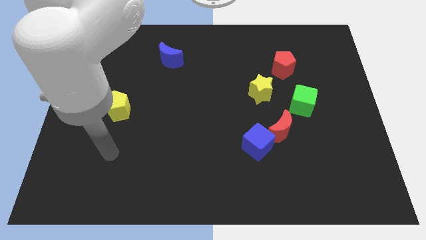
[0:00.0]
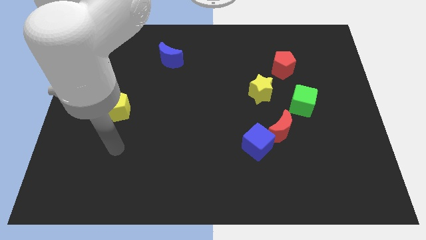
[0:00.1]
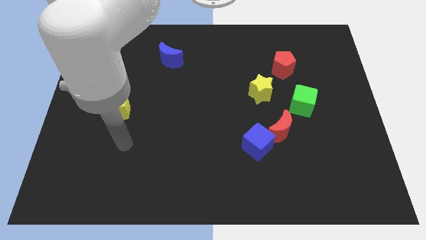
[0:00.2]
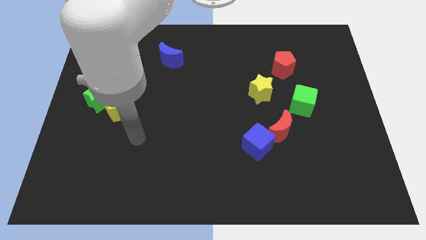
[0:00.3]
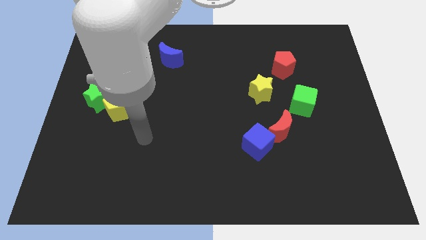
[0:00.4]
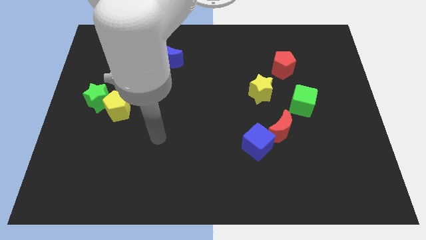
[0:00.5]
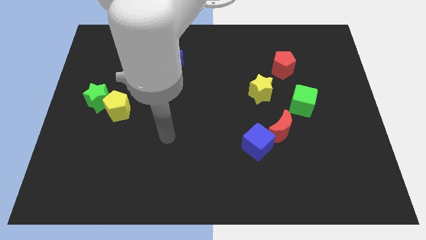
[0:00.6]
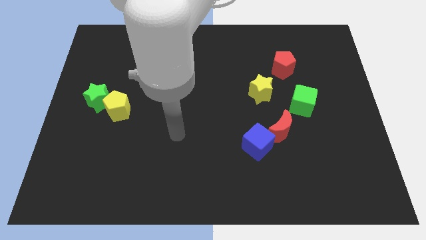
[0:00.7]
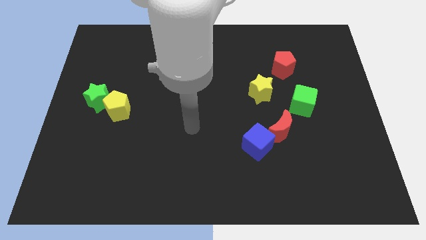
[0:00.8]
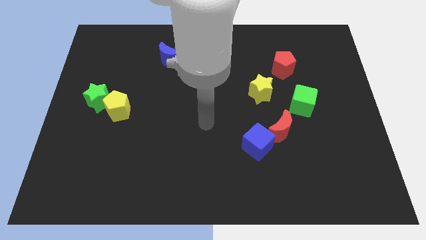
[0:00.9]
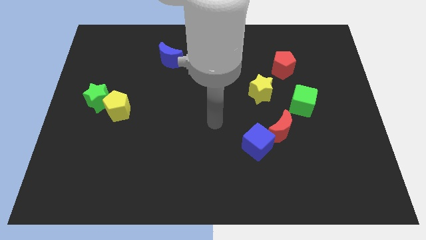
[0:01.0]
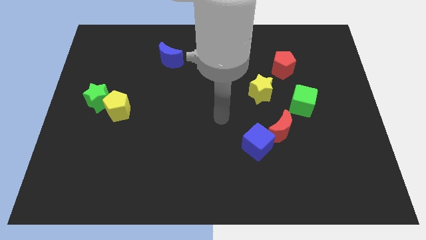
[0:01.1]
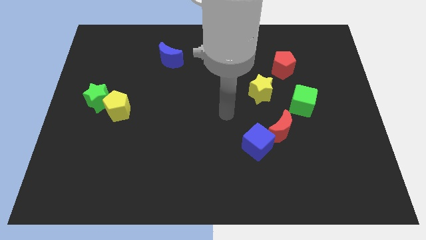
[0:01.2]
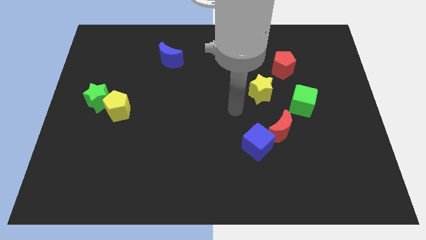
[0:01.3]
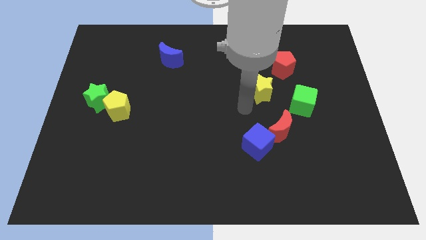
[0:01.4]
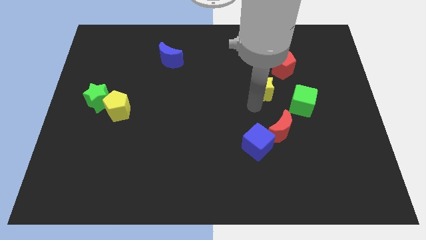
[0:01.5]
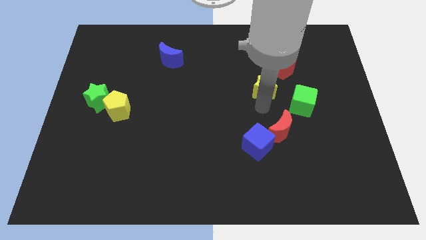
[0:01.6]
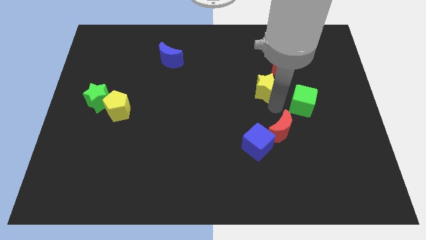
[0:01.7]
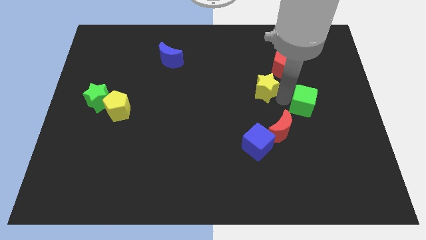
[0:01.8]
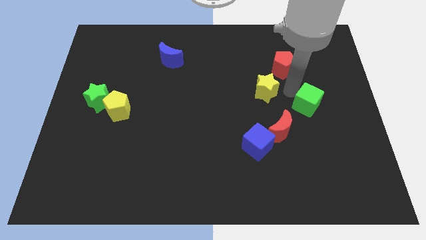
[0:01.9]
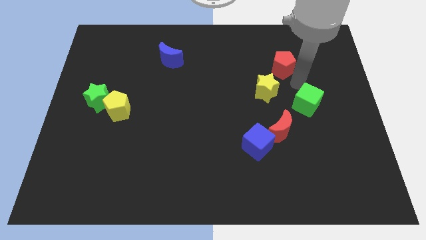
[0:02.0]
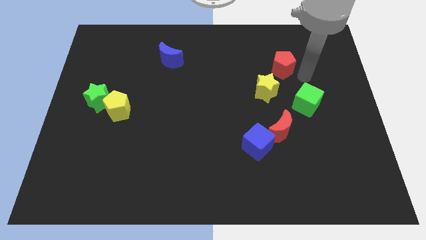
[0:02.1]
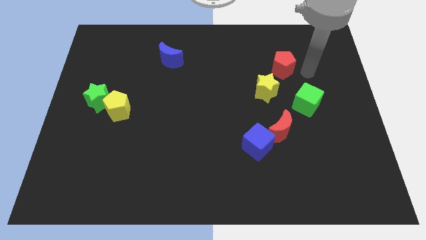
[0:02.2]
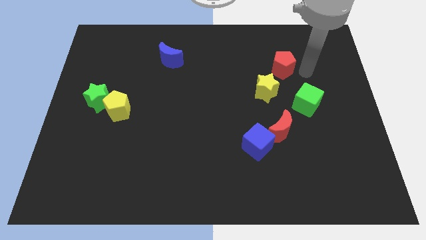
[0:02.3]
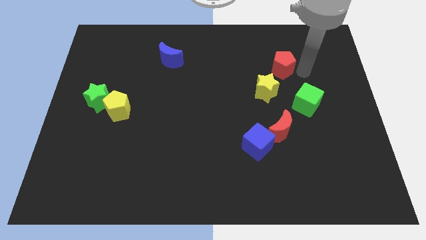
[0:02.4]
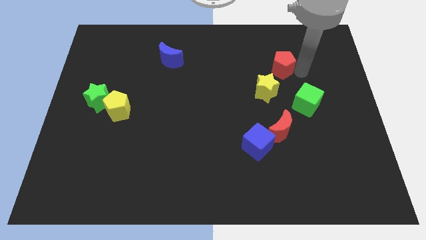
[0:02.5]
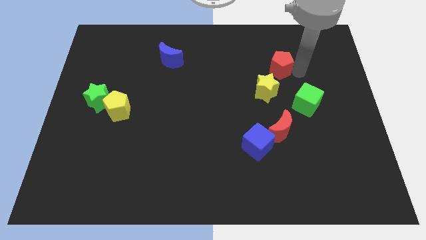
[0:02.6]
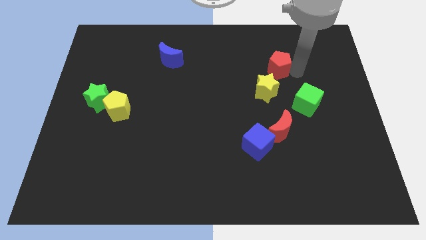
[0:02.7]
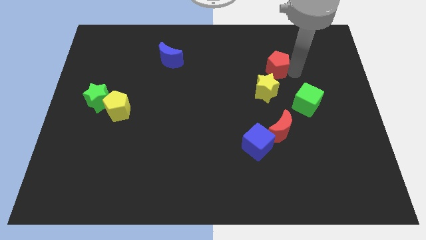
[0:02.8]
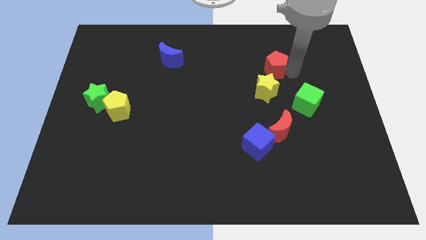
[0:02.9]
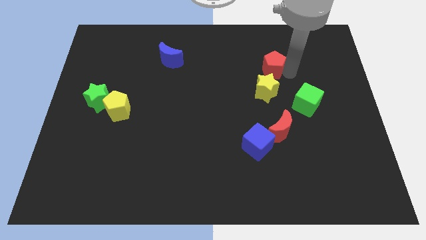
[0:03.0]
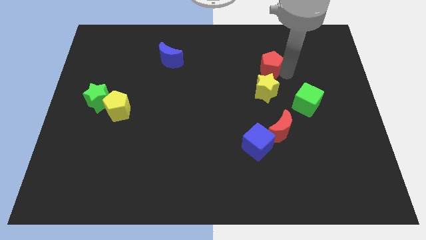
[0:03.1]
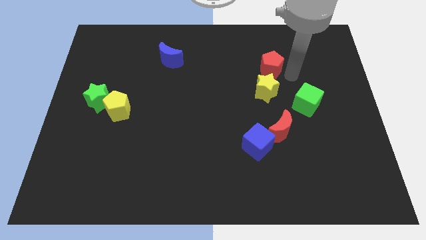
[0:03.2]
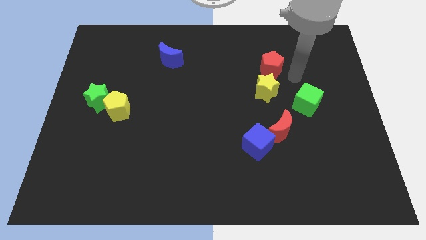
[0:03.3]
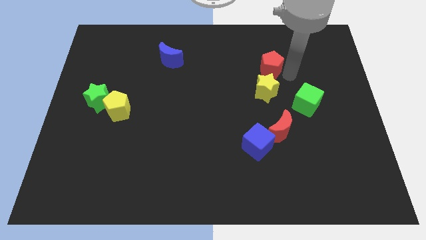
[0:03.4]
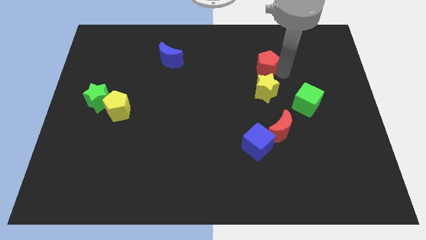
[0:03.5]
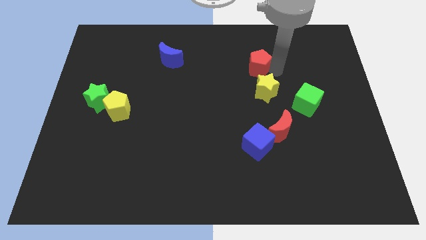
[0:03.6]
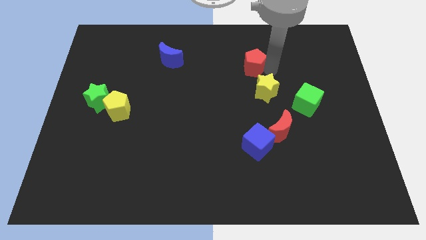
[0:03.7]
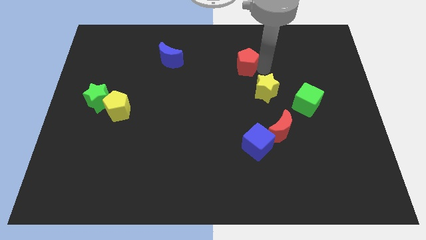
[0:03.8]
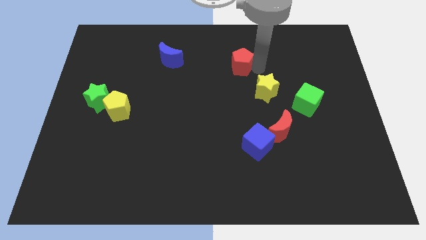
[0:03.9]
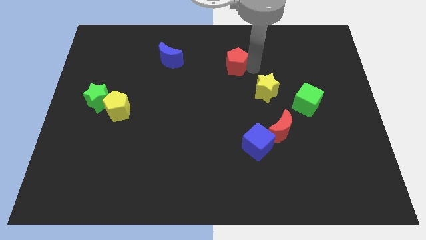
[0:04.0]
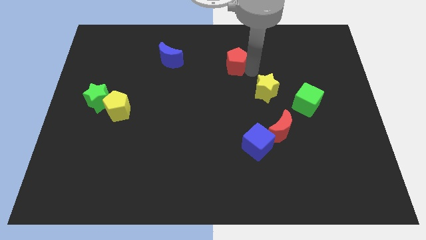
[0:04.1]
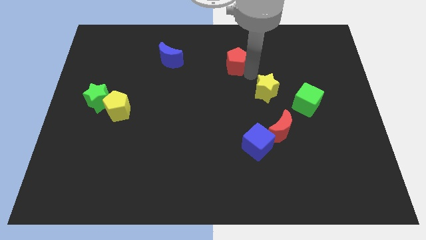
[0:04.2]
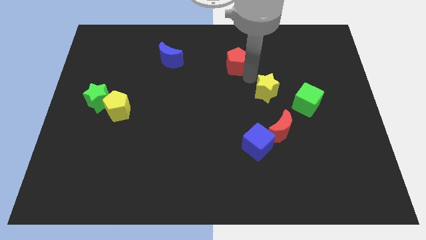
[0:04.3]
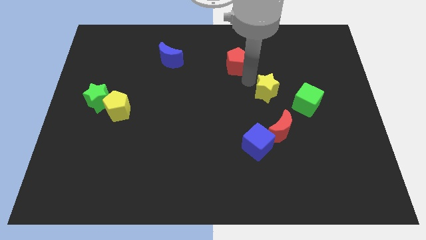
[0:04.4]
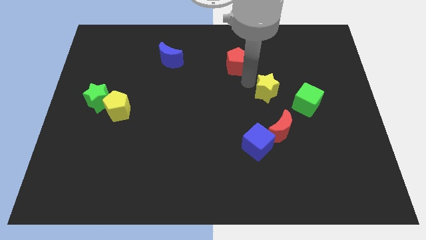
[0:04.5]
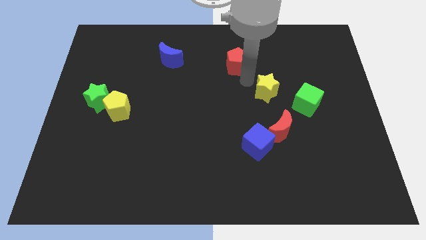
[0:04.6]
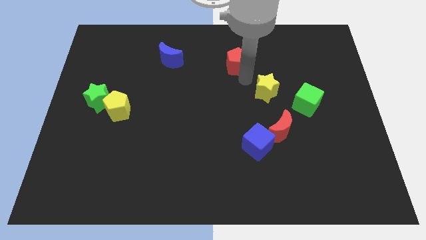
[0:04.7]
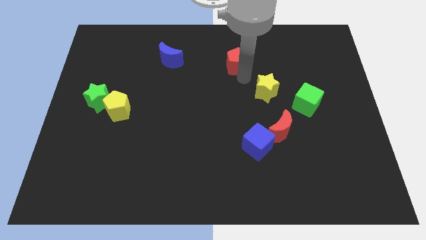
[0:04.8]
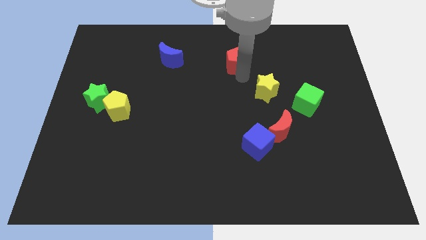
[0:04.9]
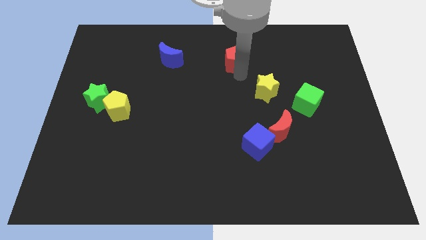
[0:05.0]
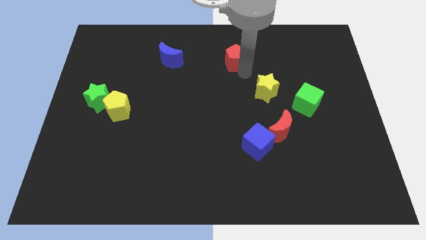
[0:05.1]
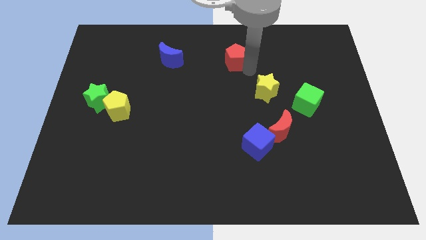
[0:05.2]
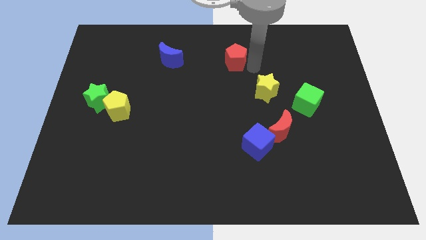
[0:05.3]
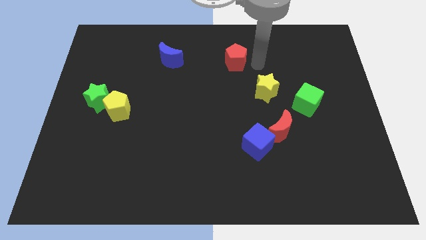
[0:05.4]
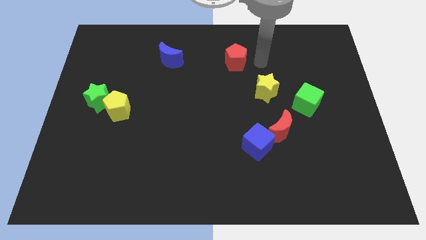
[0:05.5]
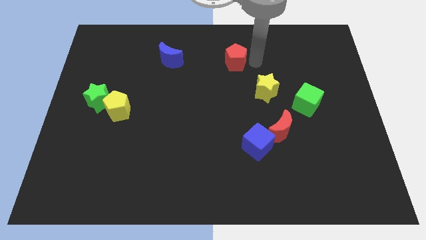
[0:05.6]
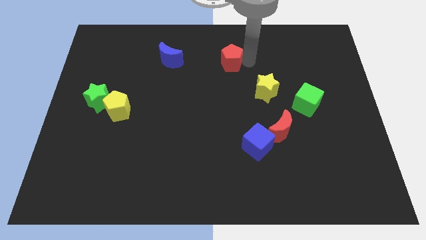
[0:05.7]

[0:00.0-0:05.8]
move the red pentagon to the right side of the blue moon

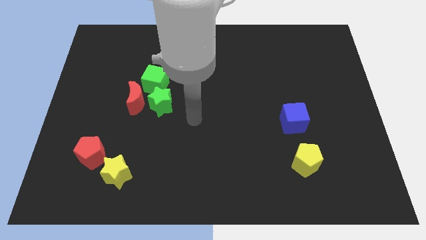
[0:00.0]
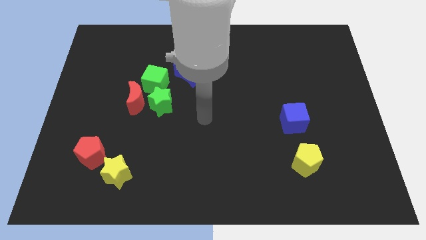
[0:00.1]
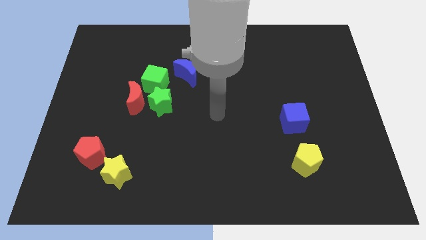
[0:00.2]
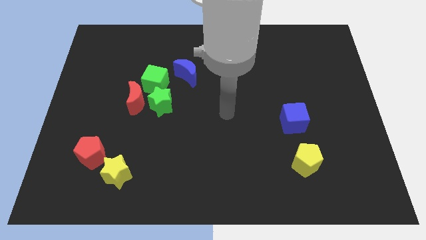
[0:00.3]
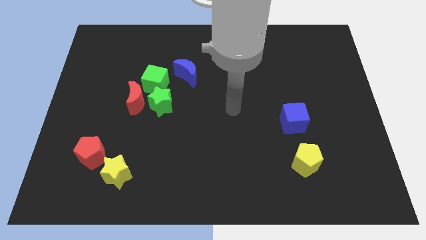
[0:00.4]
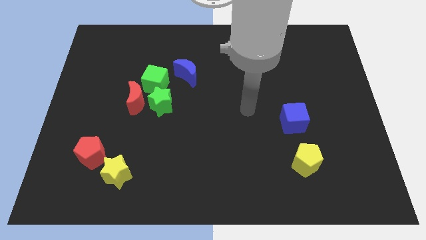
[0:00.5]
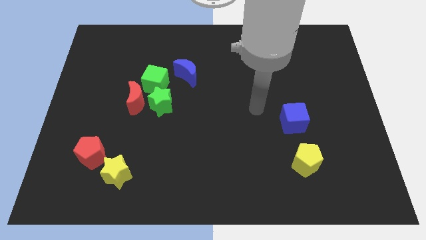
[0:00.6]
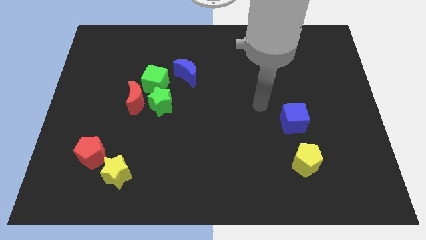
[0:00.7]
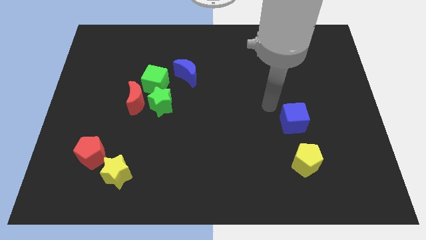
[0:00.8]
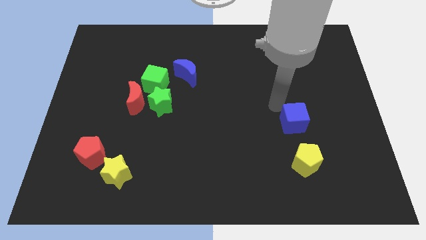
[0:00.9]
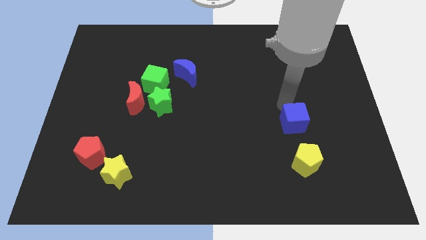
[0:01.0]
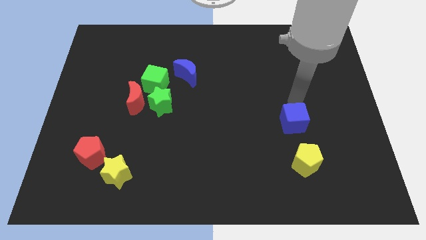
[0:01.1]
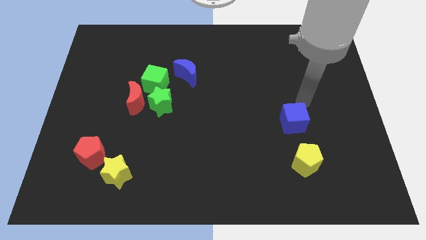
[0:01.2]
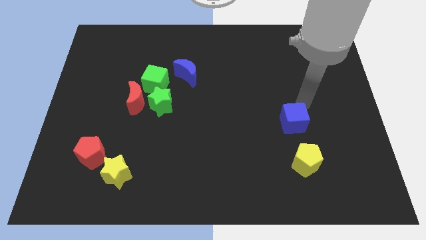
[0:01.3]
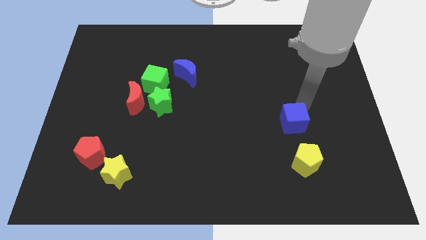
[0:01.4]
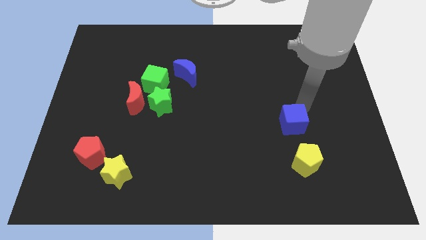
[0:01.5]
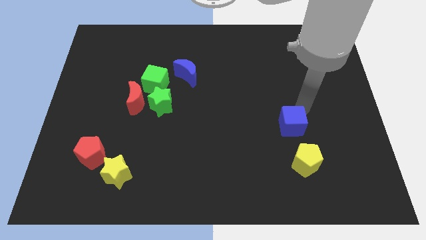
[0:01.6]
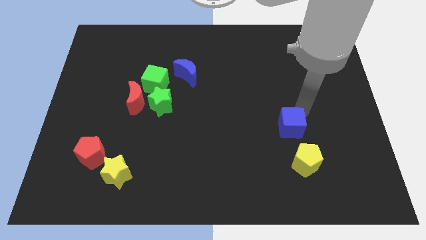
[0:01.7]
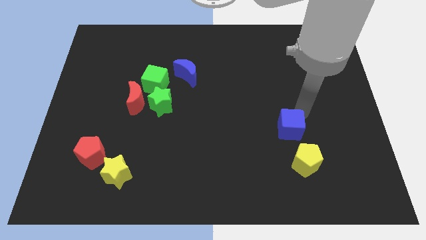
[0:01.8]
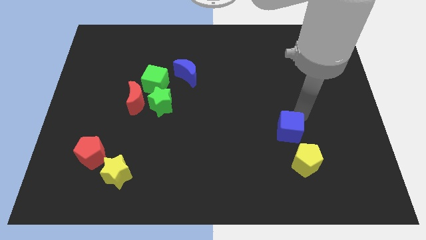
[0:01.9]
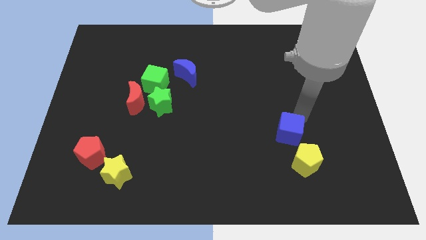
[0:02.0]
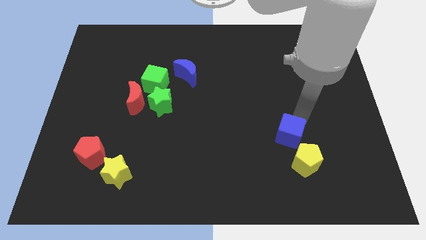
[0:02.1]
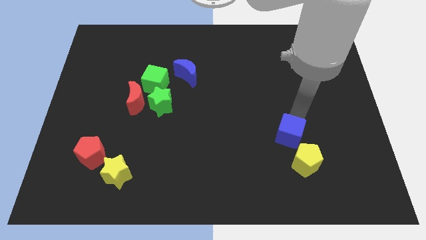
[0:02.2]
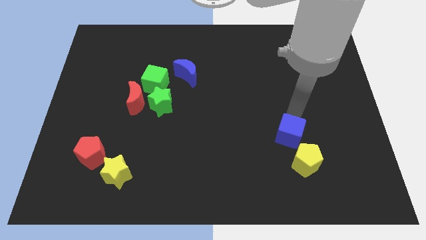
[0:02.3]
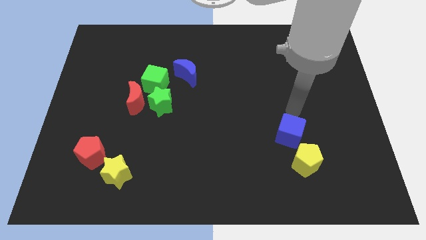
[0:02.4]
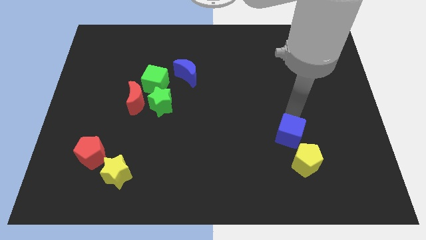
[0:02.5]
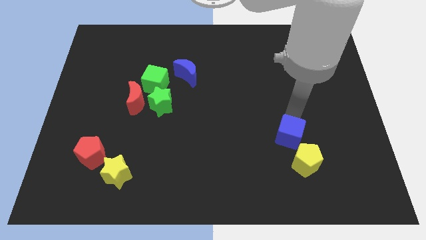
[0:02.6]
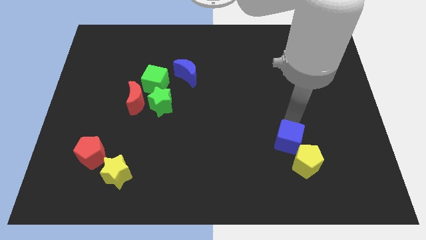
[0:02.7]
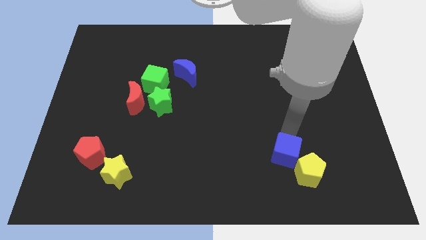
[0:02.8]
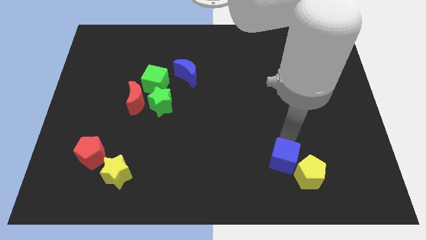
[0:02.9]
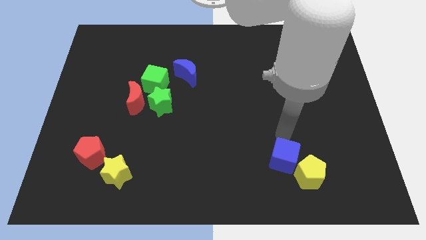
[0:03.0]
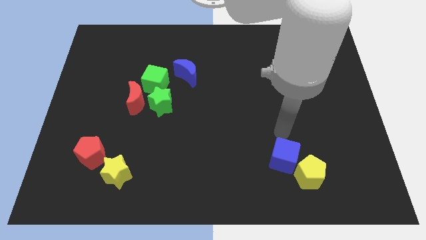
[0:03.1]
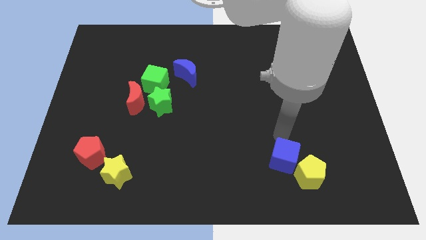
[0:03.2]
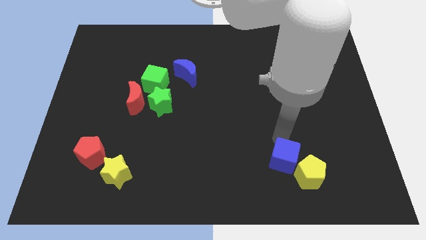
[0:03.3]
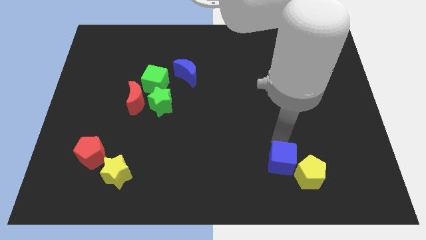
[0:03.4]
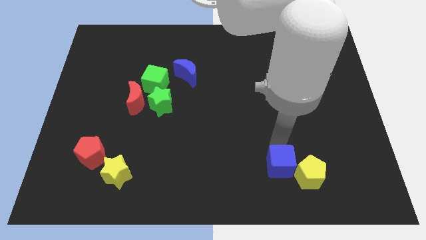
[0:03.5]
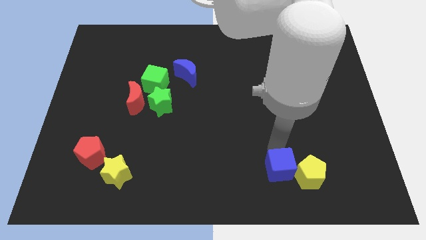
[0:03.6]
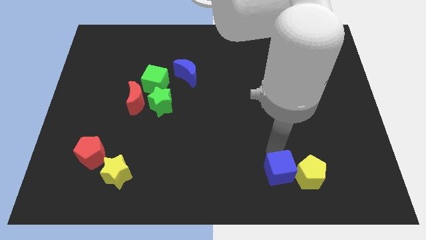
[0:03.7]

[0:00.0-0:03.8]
push the blue cube diagonally down and to the left of the yellow pentagon
